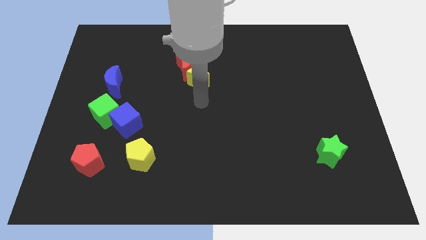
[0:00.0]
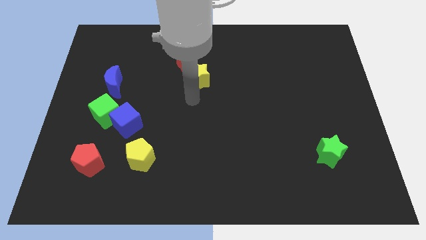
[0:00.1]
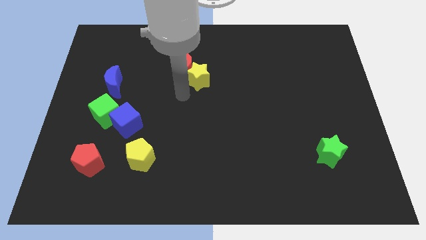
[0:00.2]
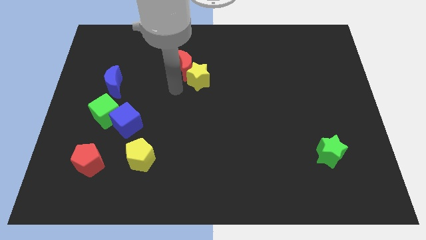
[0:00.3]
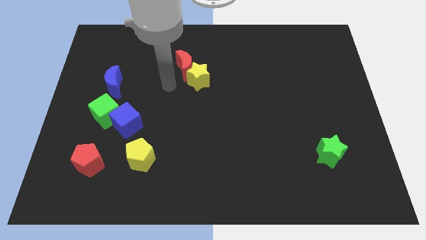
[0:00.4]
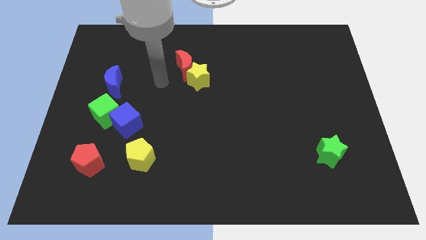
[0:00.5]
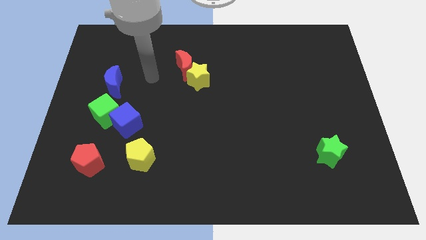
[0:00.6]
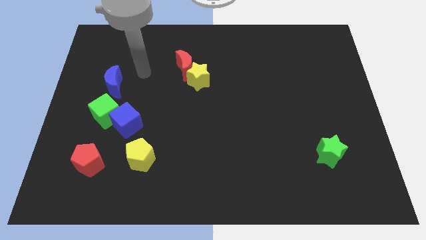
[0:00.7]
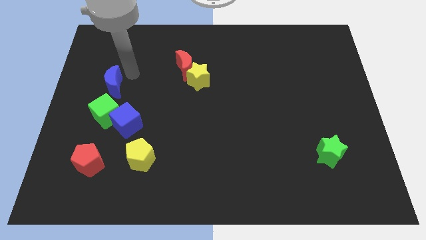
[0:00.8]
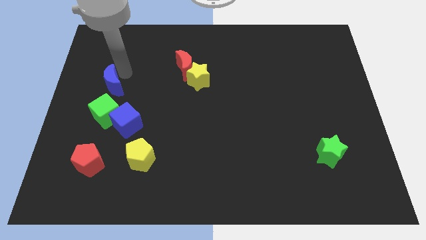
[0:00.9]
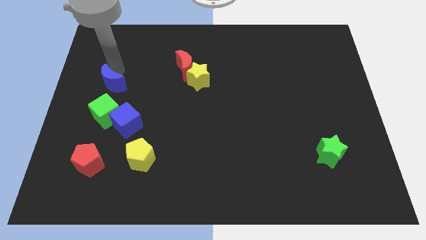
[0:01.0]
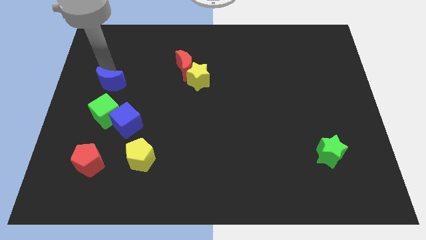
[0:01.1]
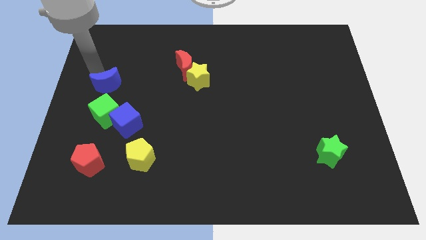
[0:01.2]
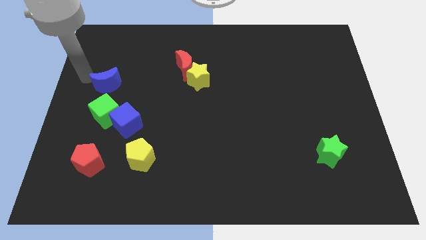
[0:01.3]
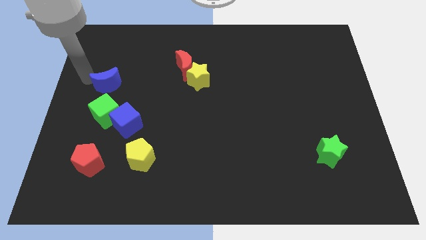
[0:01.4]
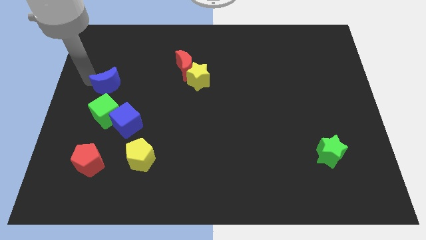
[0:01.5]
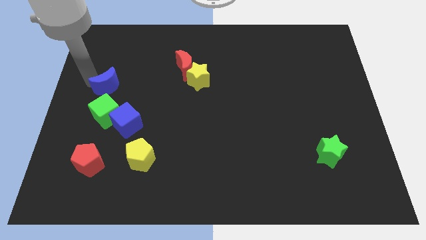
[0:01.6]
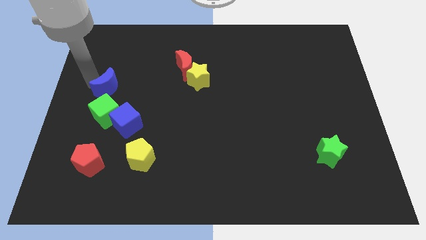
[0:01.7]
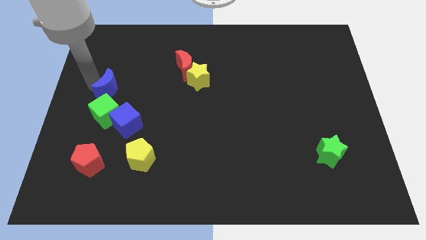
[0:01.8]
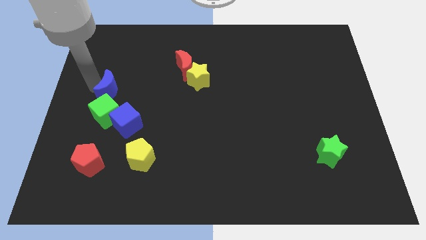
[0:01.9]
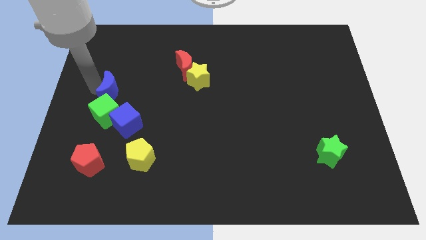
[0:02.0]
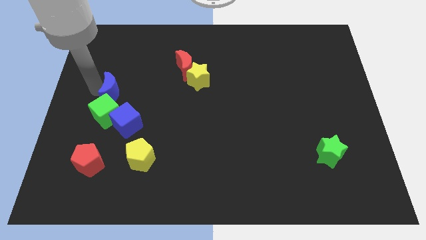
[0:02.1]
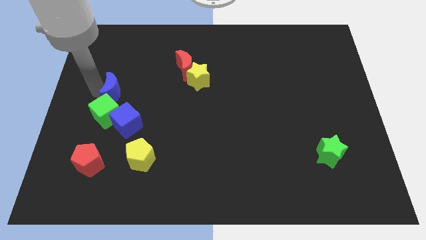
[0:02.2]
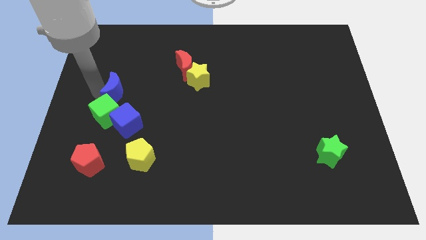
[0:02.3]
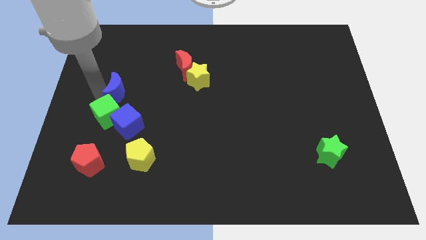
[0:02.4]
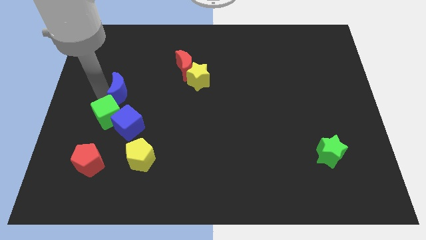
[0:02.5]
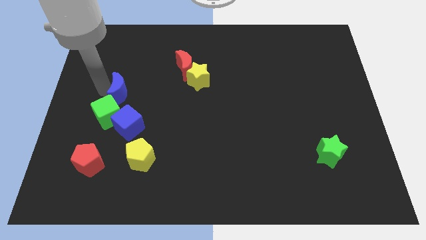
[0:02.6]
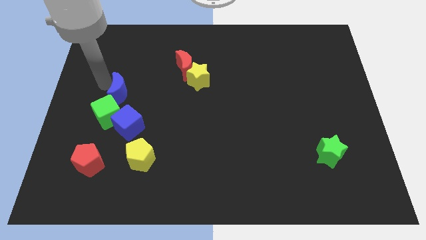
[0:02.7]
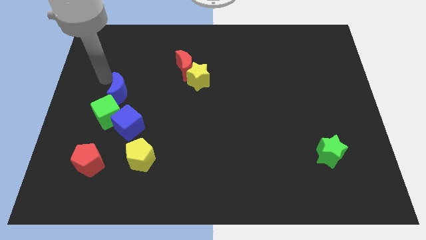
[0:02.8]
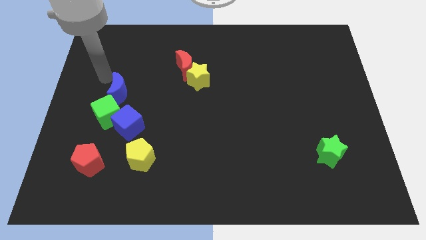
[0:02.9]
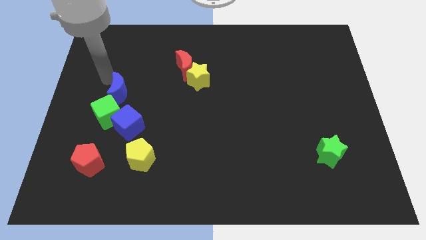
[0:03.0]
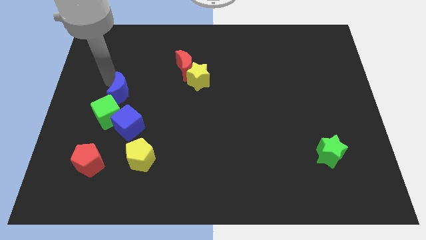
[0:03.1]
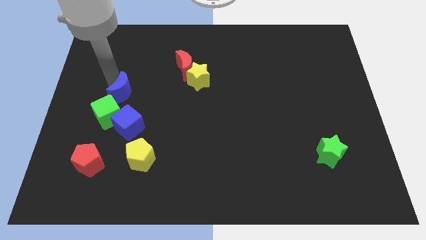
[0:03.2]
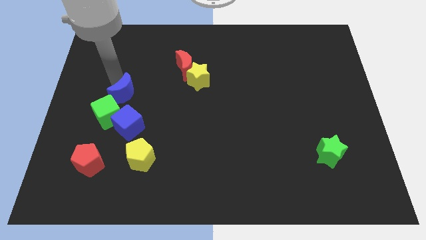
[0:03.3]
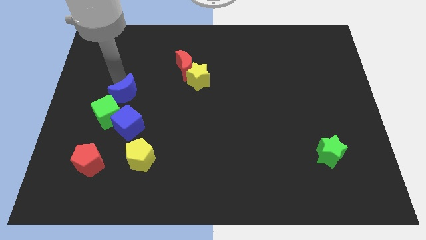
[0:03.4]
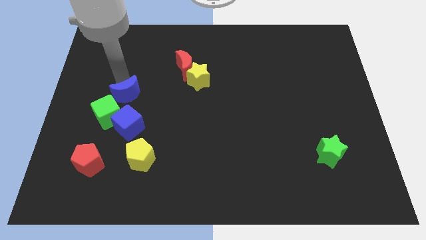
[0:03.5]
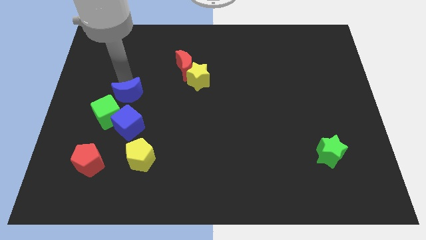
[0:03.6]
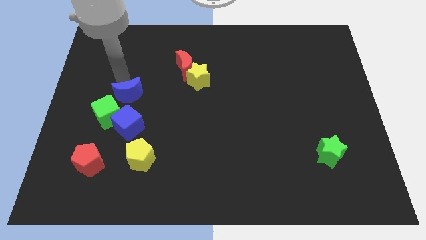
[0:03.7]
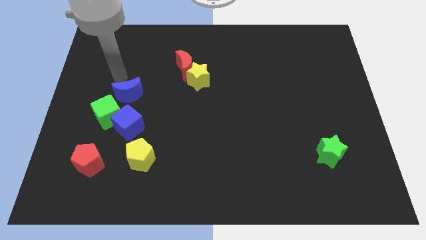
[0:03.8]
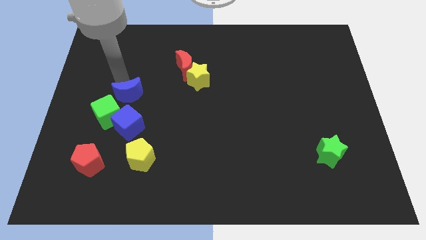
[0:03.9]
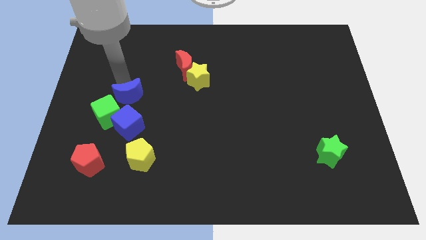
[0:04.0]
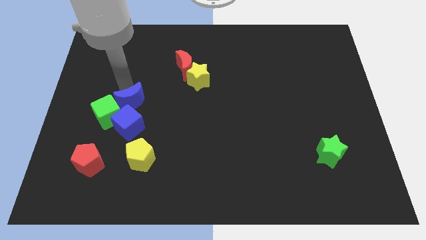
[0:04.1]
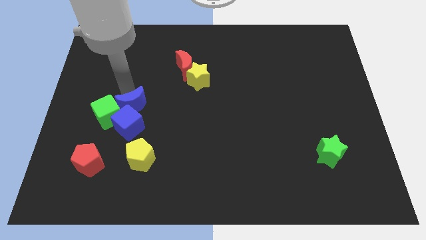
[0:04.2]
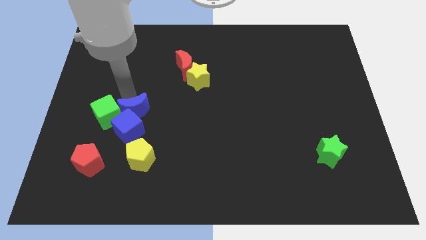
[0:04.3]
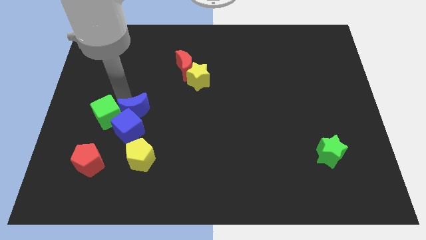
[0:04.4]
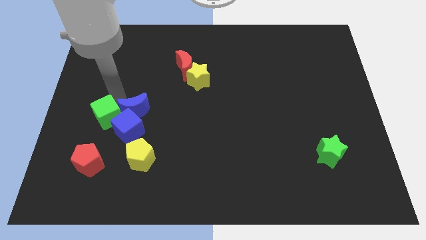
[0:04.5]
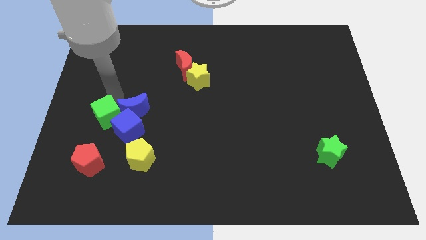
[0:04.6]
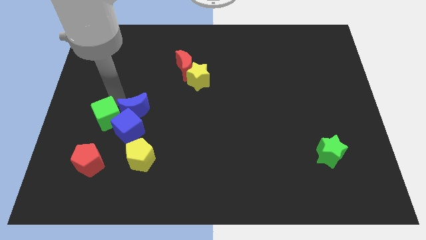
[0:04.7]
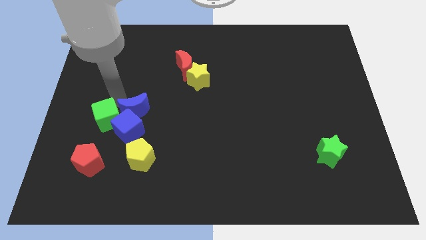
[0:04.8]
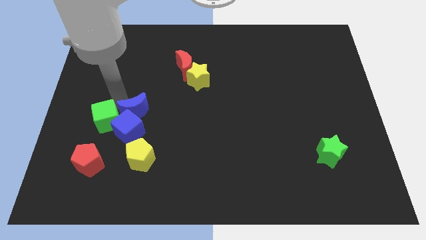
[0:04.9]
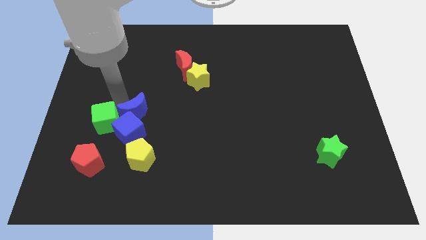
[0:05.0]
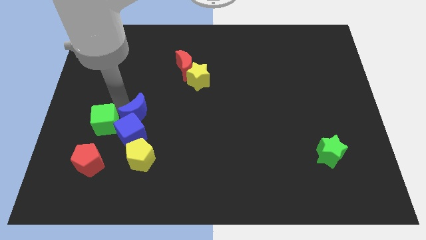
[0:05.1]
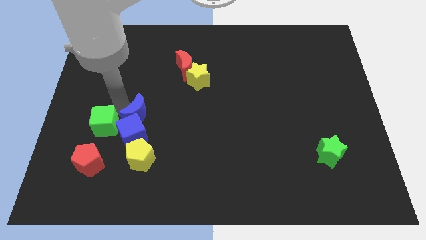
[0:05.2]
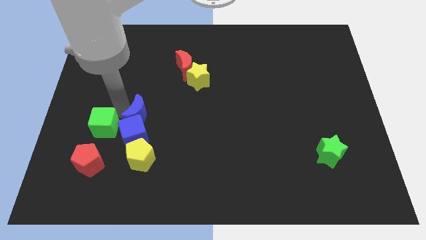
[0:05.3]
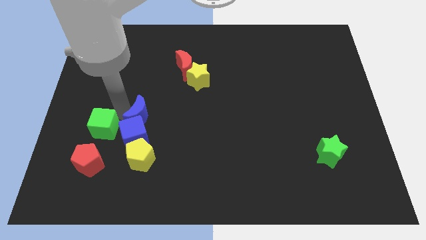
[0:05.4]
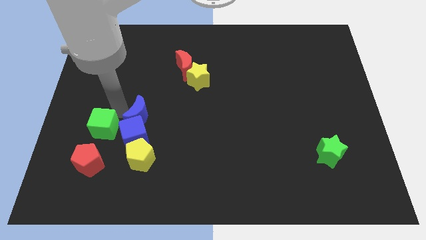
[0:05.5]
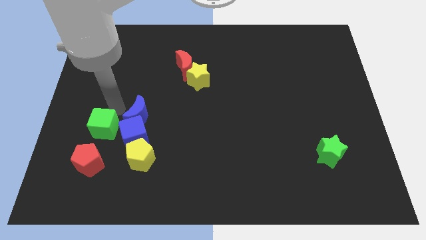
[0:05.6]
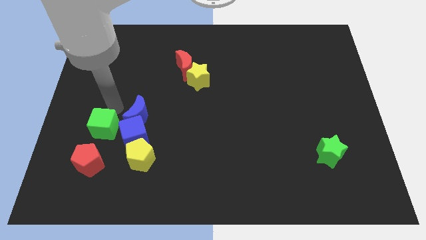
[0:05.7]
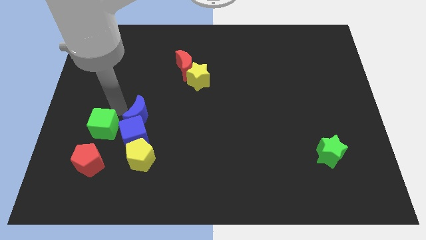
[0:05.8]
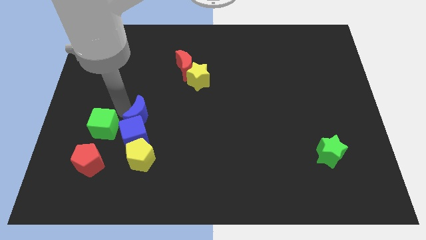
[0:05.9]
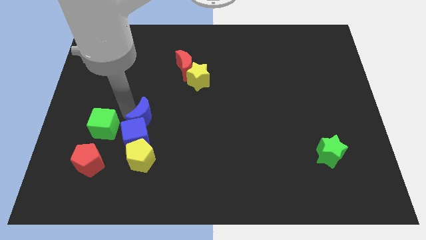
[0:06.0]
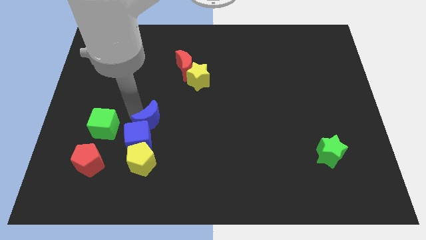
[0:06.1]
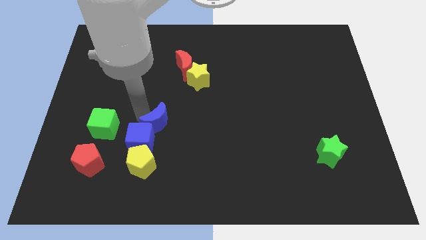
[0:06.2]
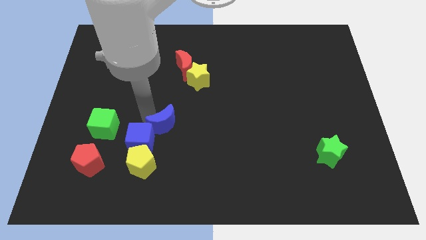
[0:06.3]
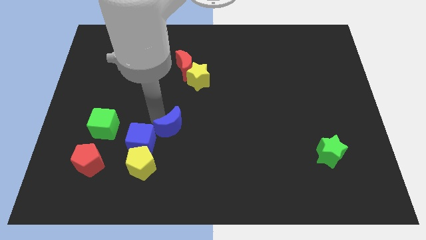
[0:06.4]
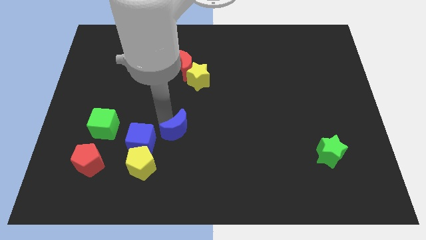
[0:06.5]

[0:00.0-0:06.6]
push the blue moon downwards and to the right diagonally

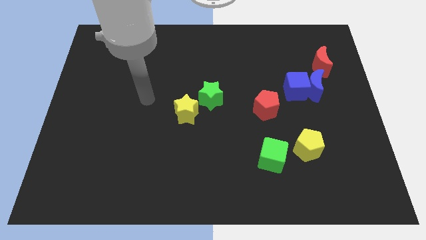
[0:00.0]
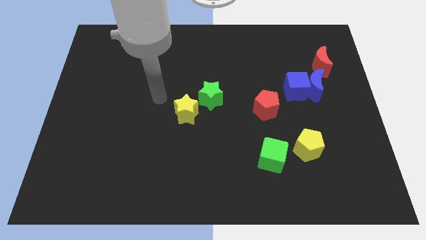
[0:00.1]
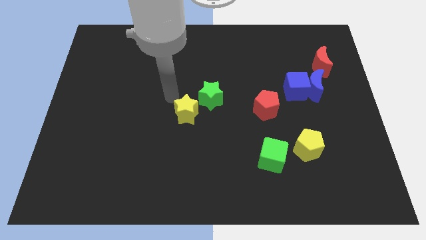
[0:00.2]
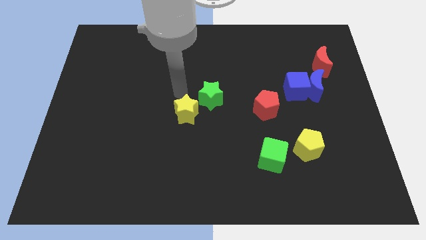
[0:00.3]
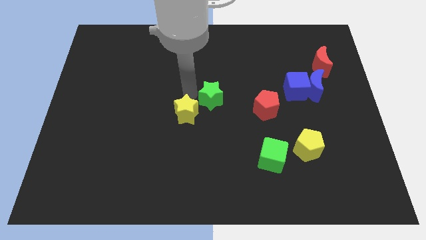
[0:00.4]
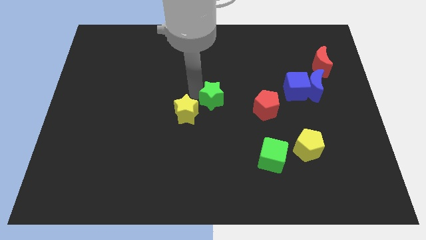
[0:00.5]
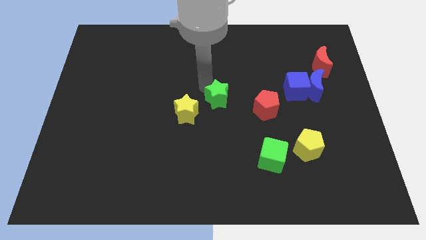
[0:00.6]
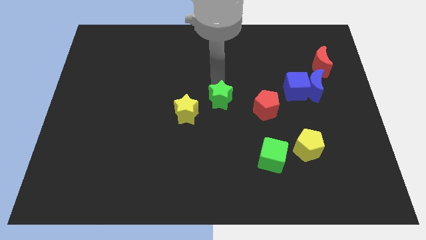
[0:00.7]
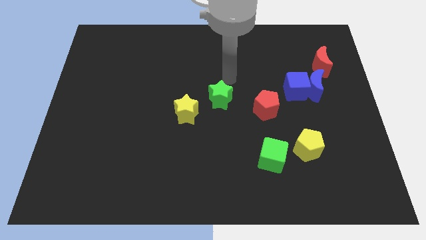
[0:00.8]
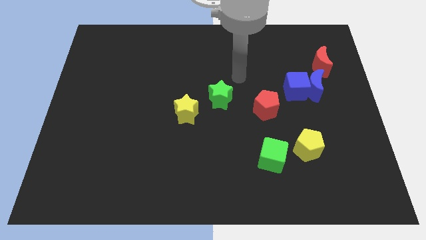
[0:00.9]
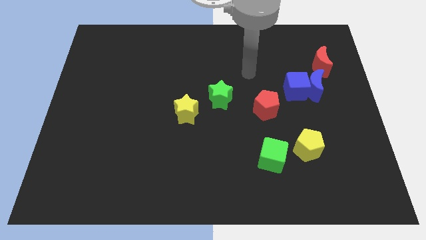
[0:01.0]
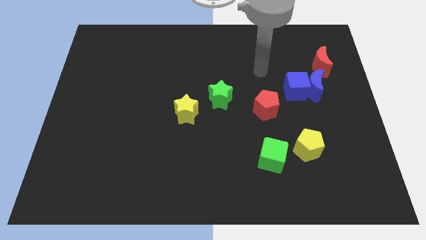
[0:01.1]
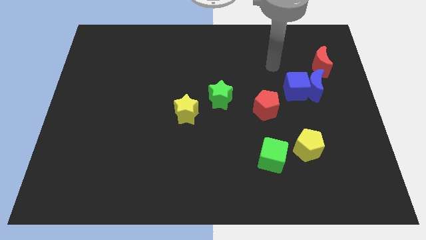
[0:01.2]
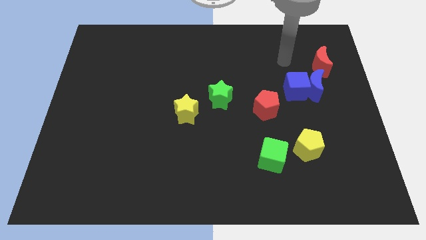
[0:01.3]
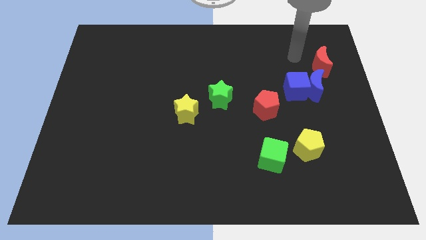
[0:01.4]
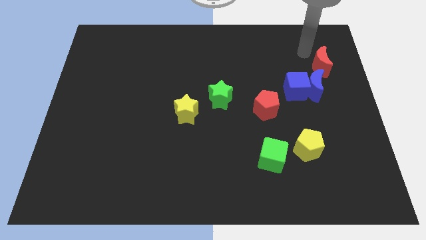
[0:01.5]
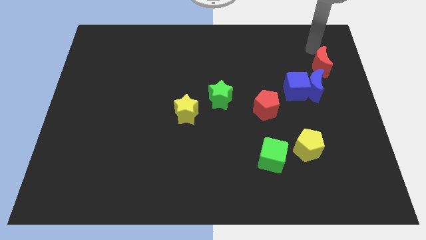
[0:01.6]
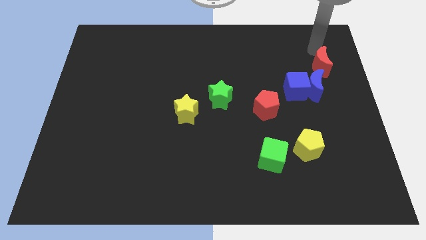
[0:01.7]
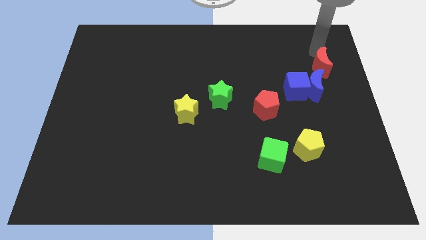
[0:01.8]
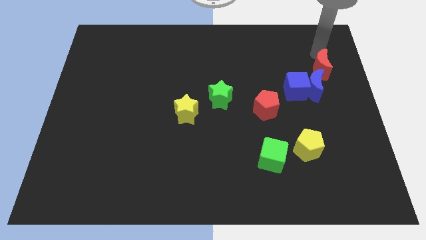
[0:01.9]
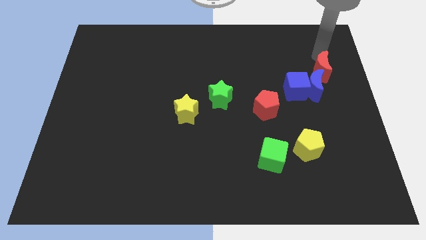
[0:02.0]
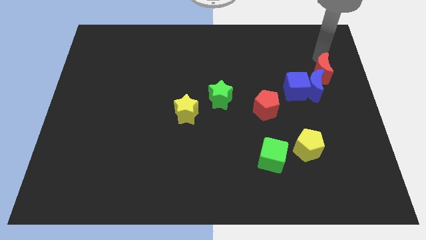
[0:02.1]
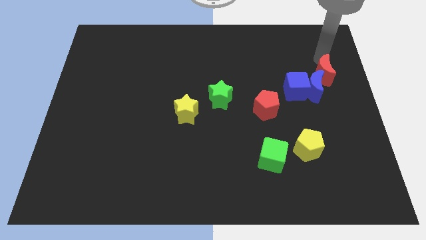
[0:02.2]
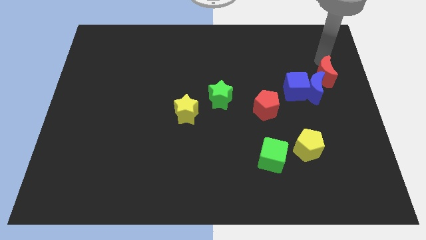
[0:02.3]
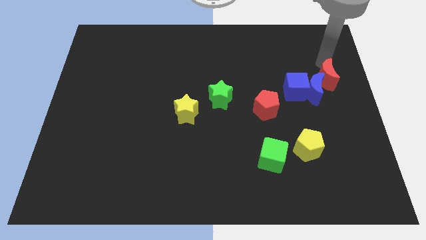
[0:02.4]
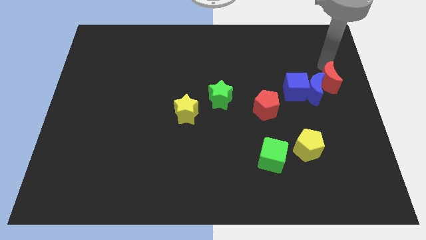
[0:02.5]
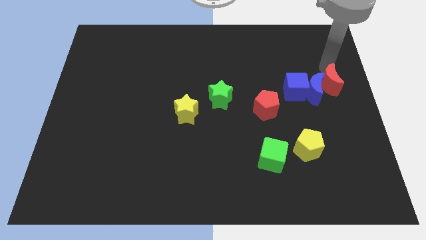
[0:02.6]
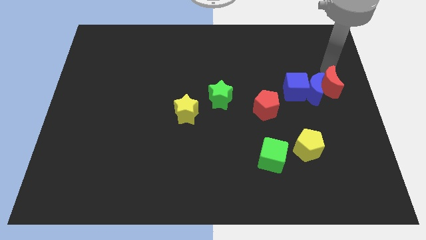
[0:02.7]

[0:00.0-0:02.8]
slightly move the red moon downwards
